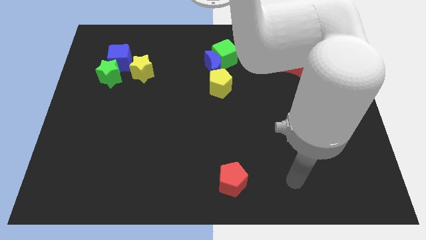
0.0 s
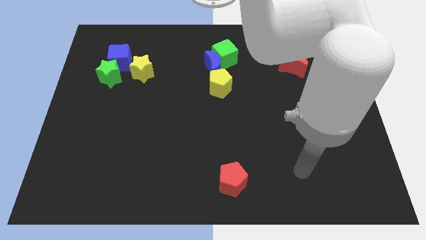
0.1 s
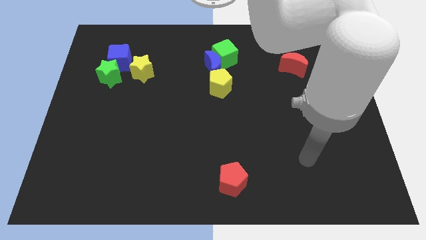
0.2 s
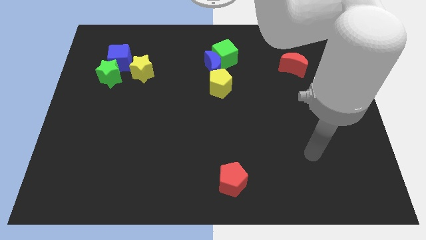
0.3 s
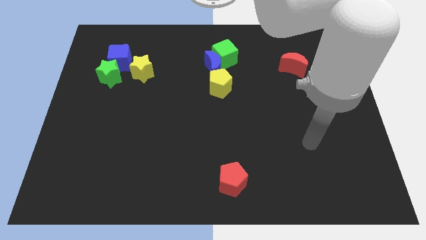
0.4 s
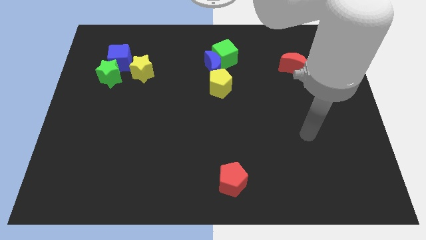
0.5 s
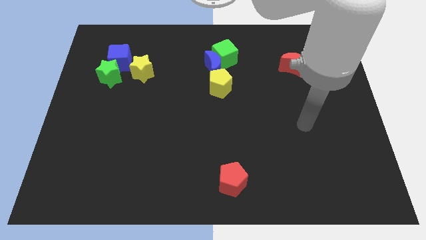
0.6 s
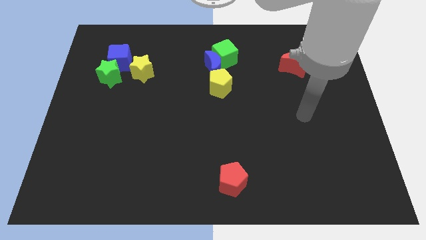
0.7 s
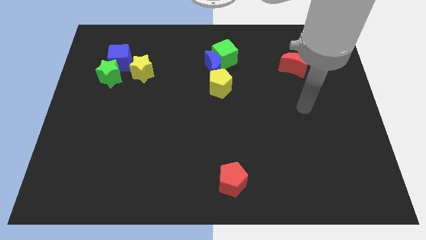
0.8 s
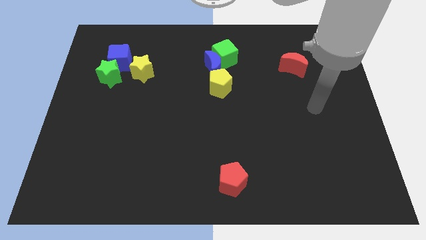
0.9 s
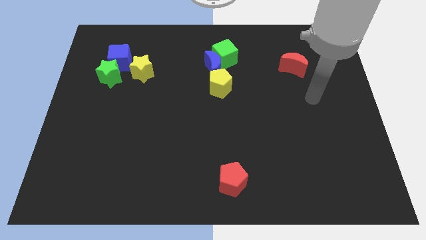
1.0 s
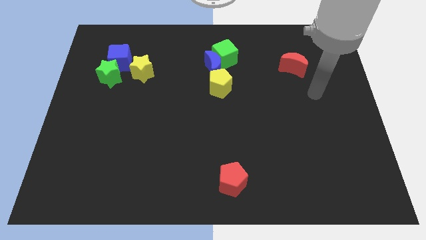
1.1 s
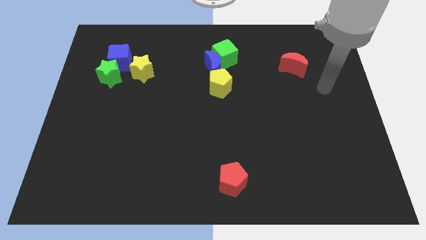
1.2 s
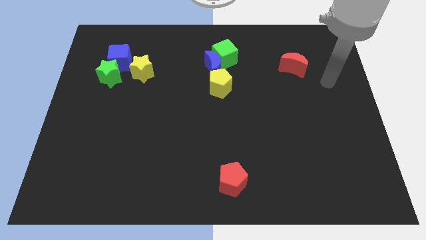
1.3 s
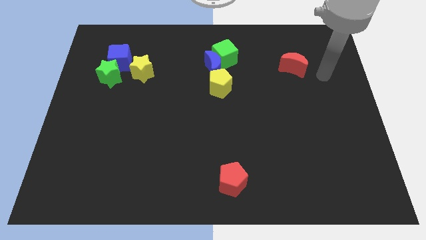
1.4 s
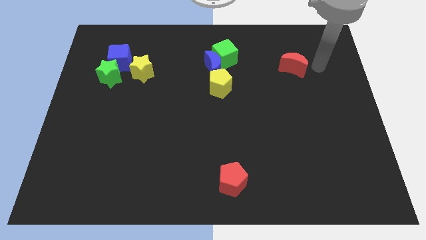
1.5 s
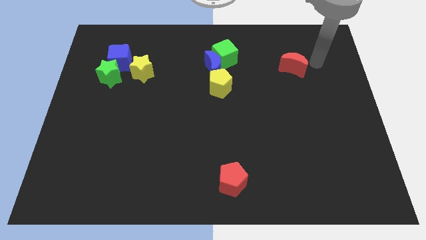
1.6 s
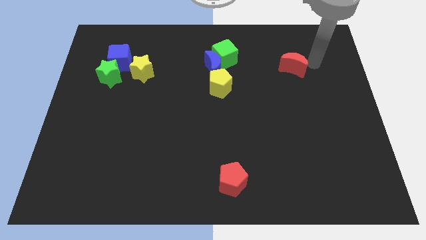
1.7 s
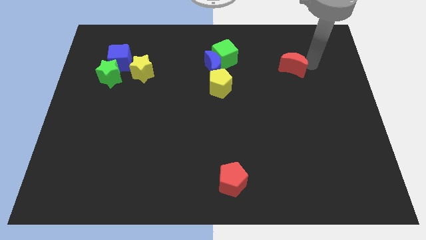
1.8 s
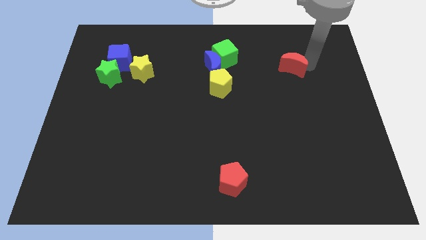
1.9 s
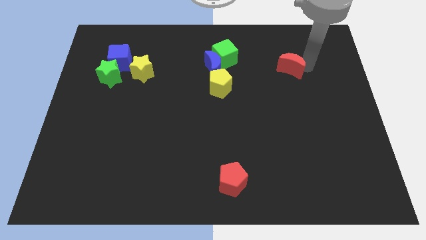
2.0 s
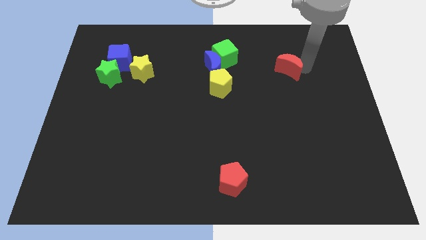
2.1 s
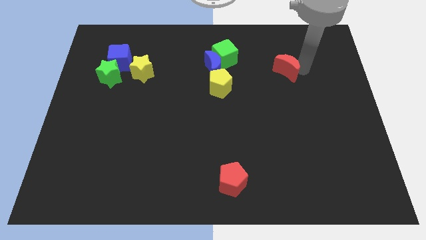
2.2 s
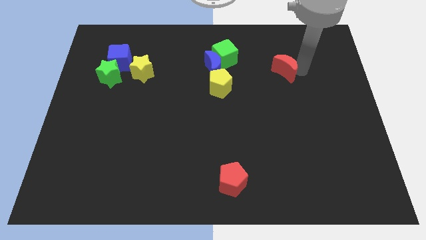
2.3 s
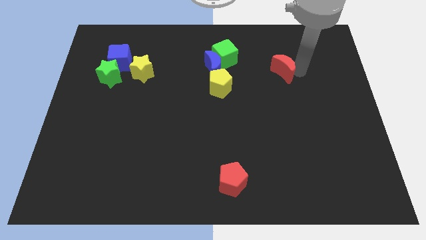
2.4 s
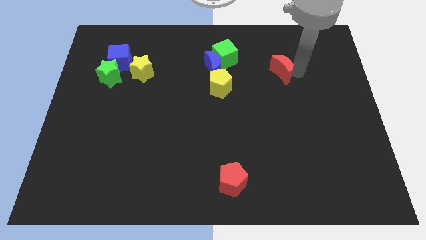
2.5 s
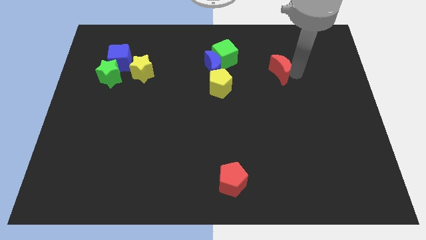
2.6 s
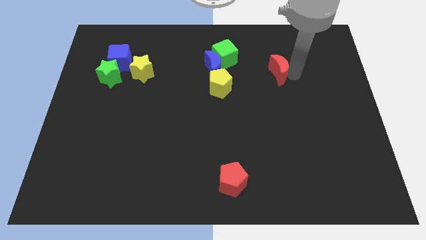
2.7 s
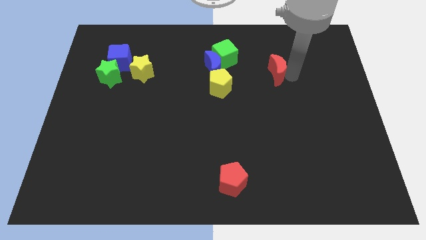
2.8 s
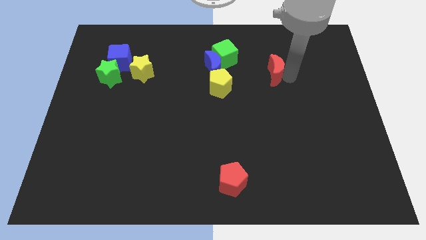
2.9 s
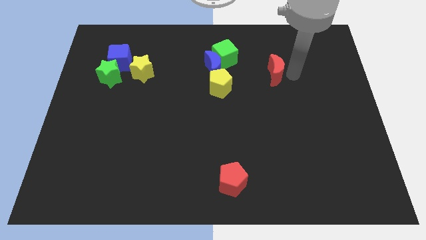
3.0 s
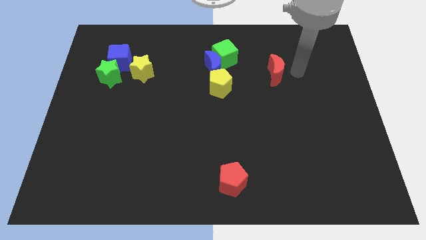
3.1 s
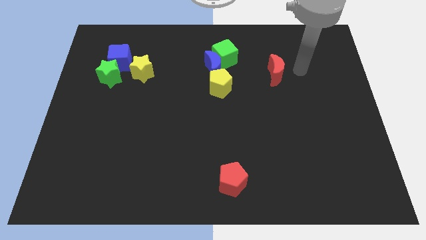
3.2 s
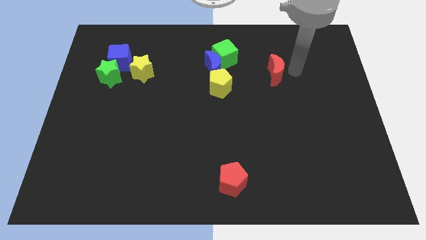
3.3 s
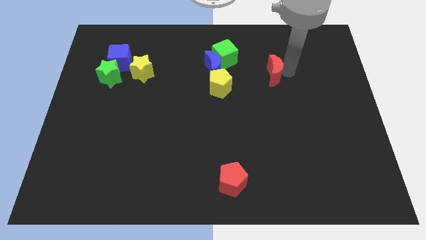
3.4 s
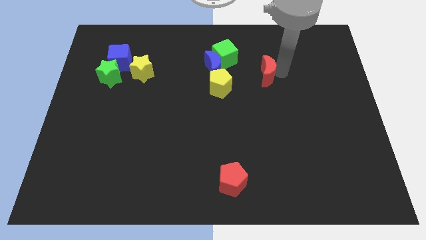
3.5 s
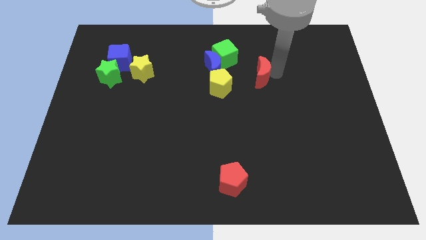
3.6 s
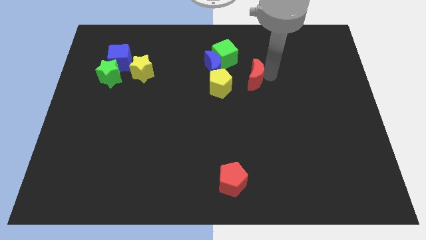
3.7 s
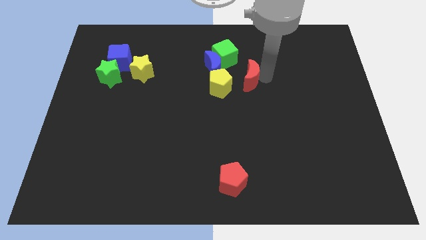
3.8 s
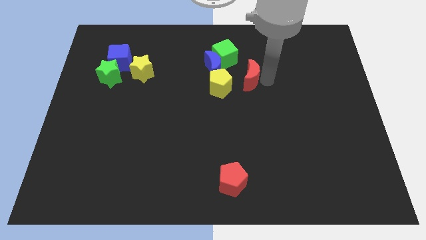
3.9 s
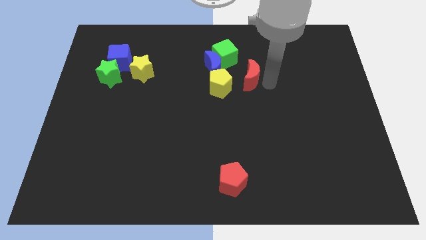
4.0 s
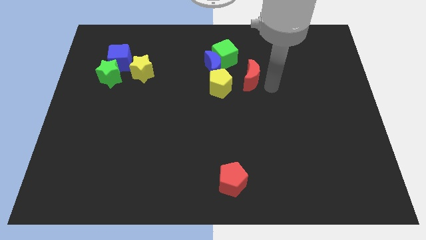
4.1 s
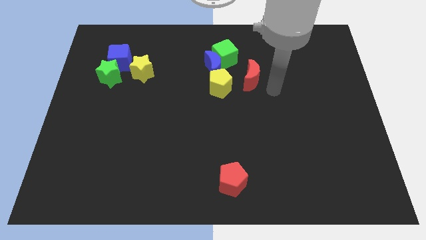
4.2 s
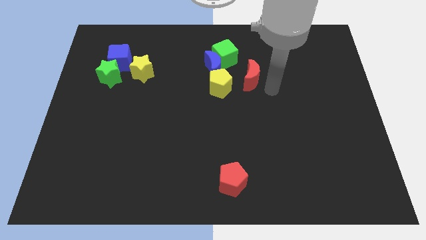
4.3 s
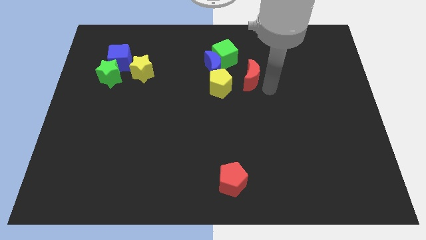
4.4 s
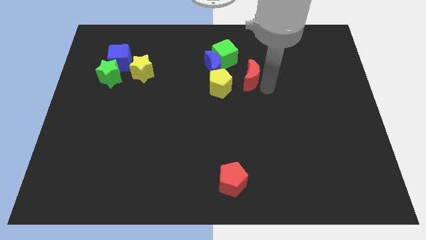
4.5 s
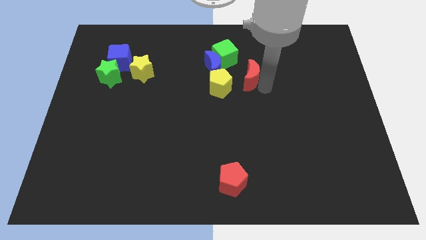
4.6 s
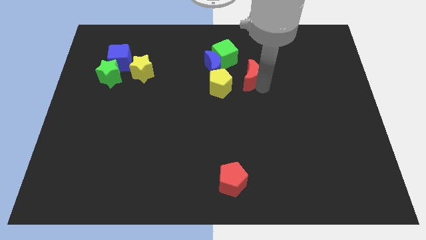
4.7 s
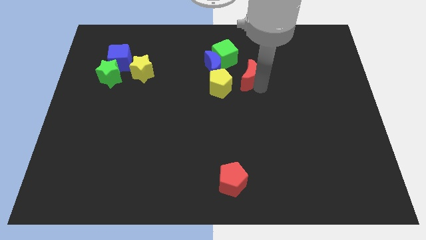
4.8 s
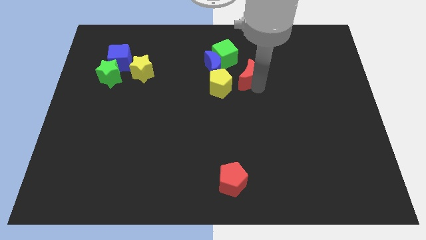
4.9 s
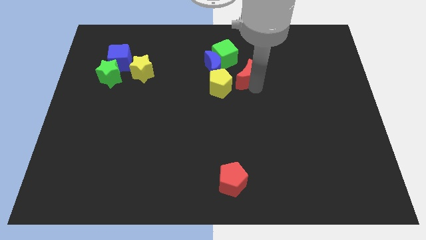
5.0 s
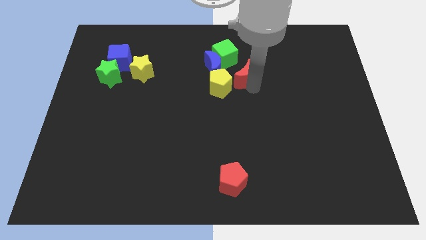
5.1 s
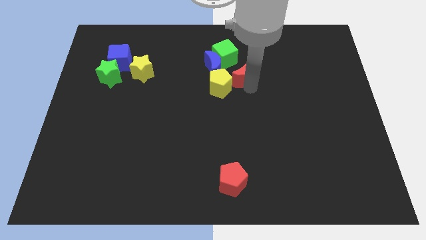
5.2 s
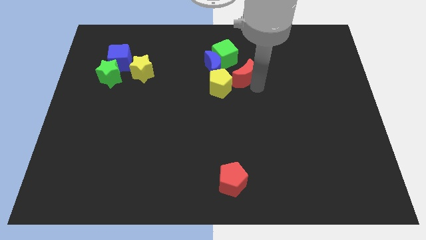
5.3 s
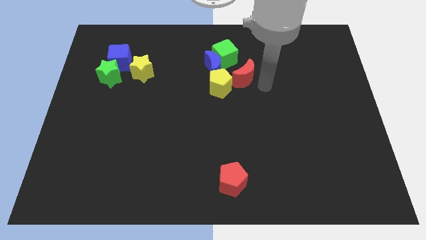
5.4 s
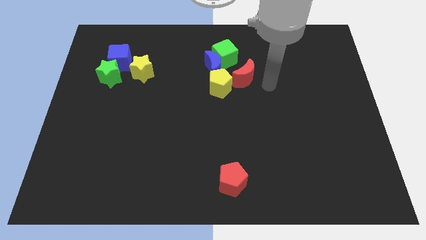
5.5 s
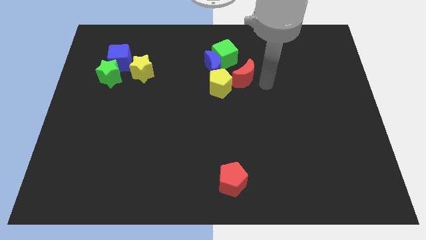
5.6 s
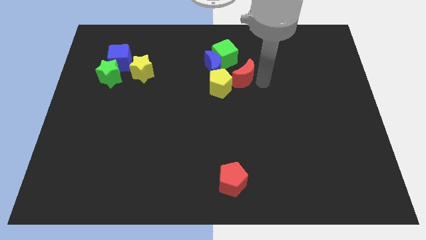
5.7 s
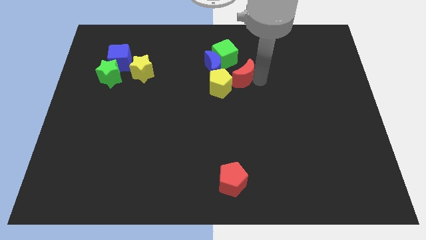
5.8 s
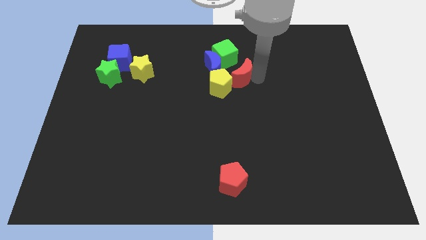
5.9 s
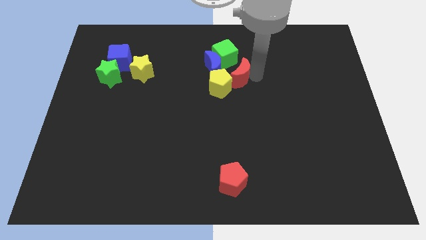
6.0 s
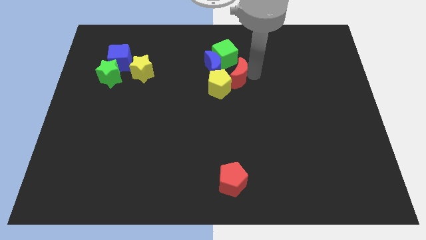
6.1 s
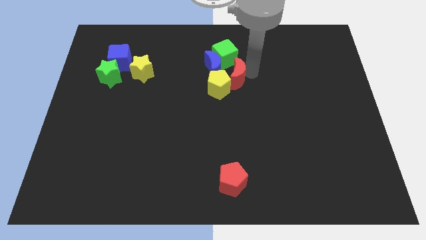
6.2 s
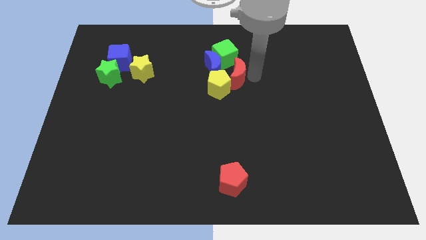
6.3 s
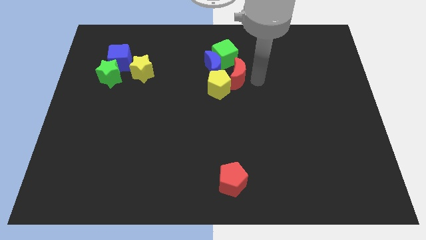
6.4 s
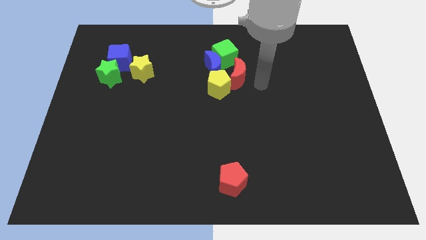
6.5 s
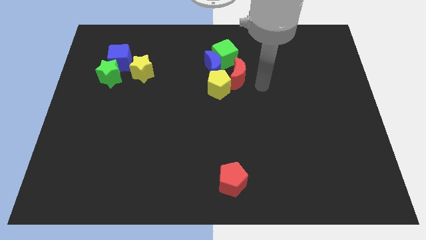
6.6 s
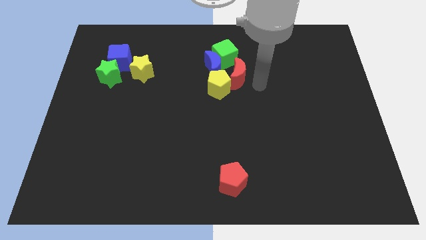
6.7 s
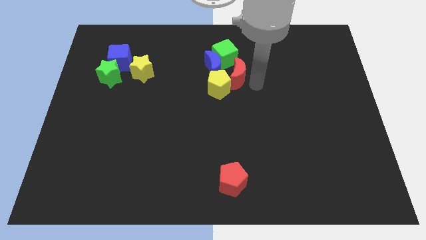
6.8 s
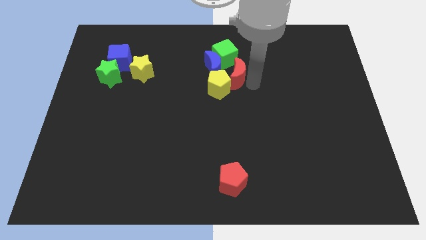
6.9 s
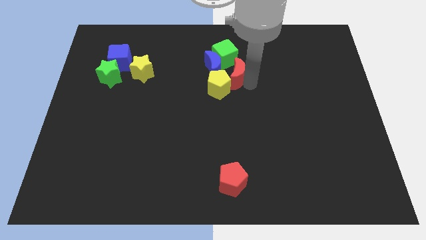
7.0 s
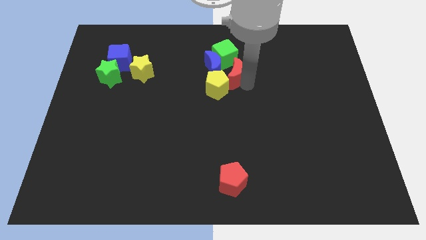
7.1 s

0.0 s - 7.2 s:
slide the red moon towards the blue moon
